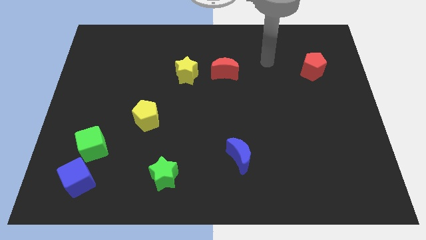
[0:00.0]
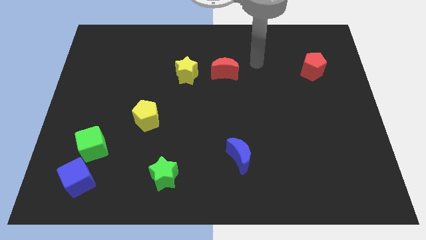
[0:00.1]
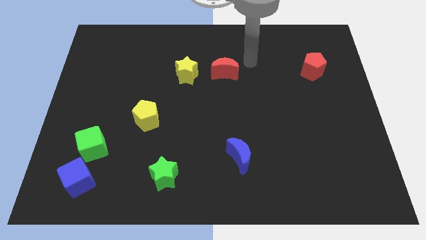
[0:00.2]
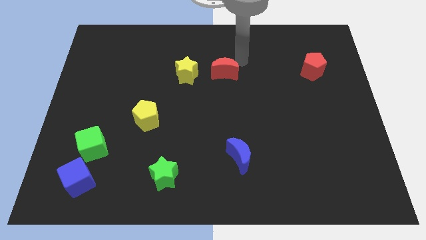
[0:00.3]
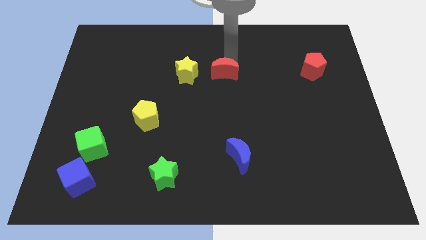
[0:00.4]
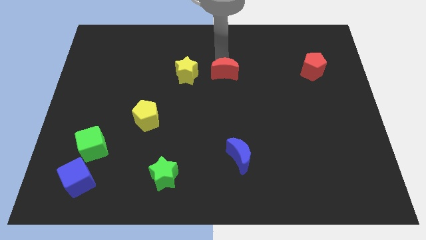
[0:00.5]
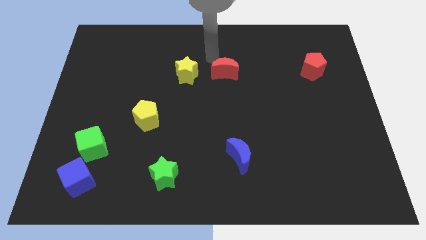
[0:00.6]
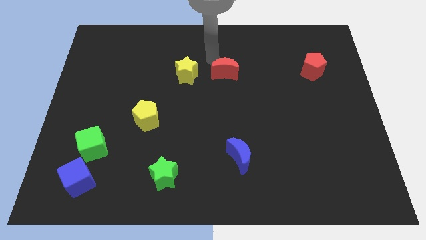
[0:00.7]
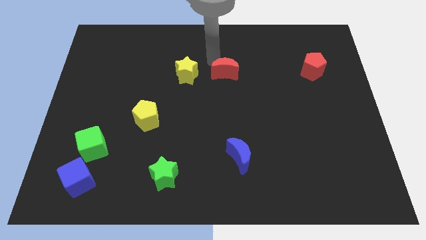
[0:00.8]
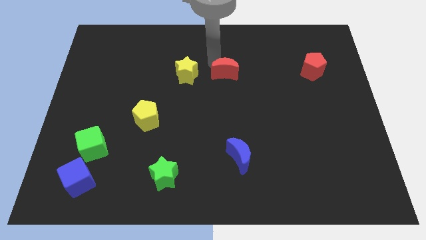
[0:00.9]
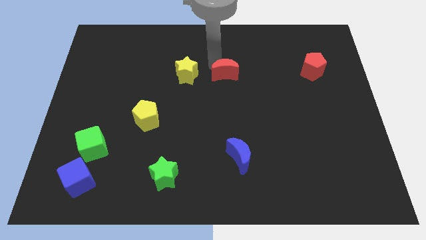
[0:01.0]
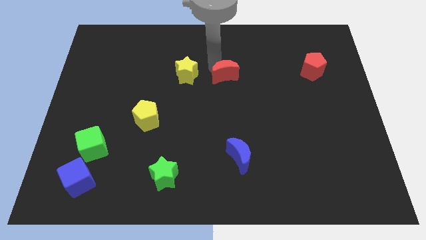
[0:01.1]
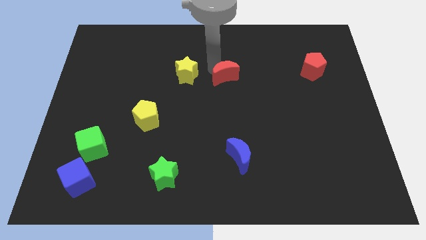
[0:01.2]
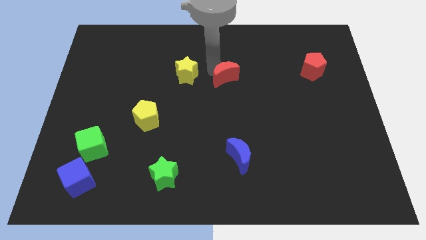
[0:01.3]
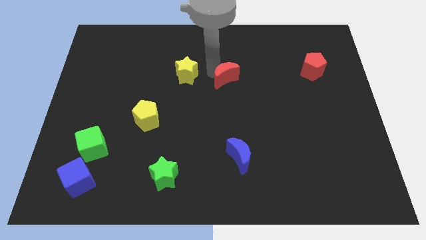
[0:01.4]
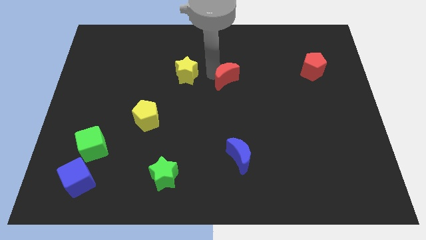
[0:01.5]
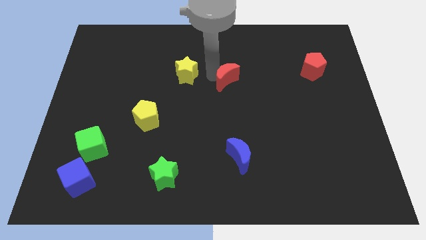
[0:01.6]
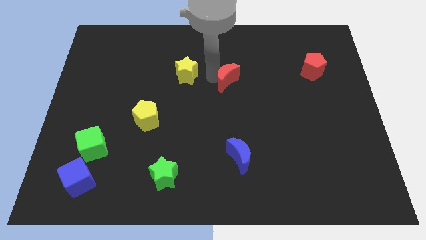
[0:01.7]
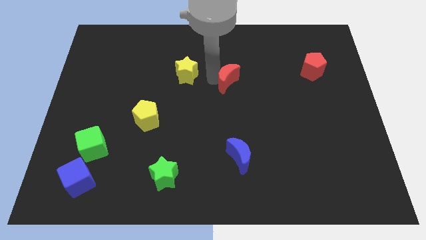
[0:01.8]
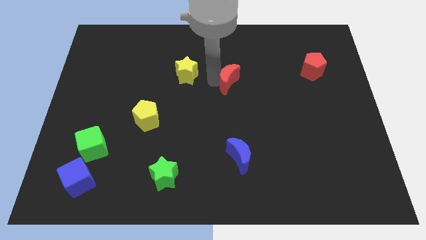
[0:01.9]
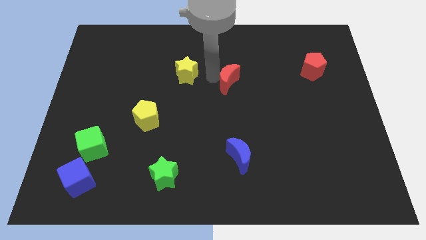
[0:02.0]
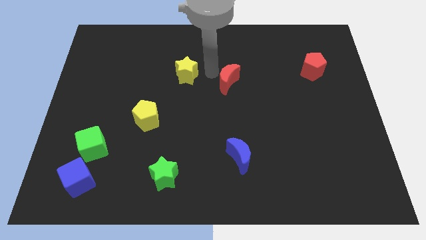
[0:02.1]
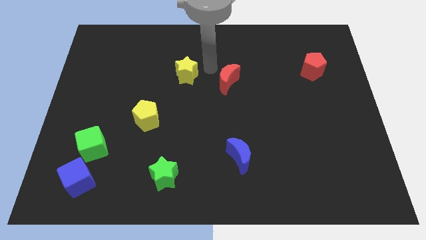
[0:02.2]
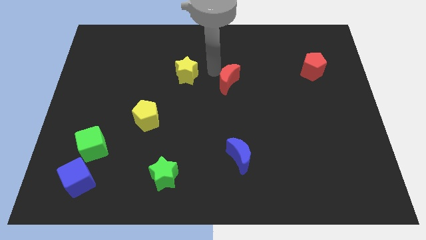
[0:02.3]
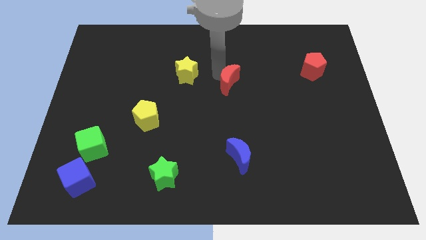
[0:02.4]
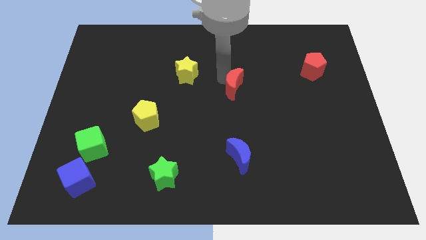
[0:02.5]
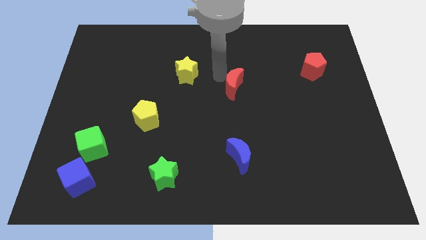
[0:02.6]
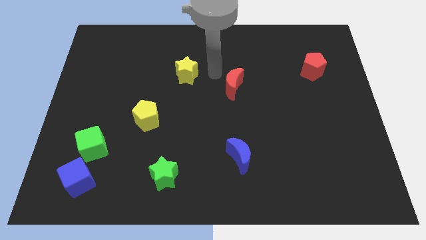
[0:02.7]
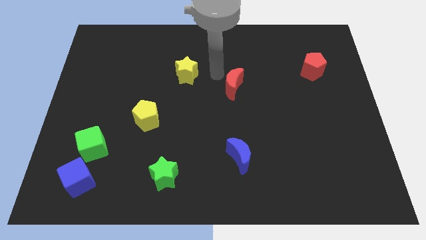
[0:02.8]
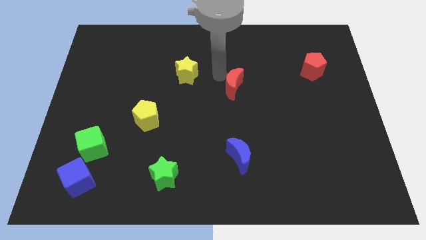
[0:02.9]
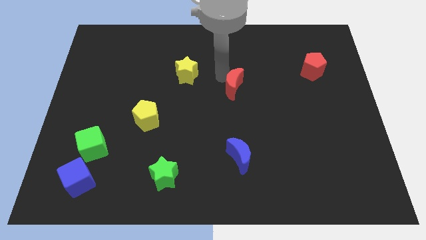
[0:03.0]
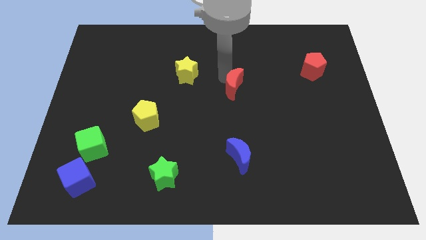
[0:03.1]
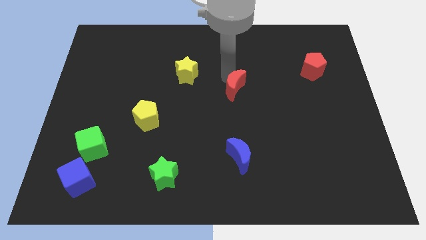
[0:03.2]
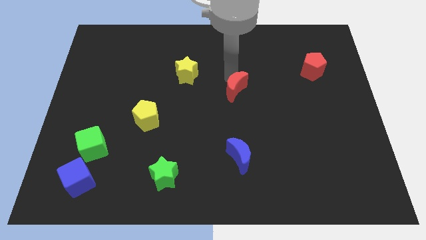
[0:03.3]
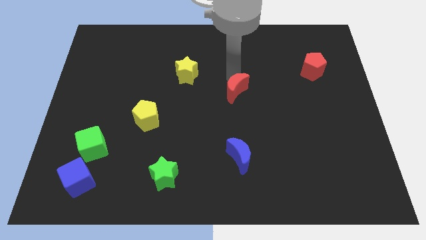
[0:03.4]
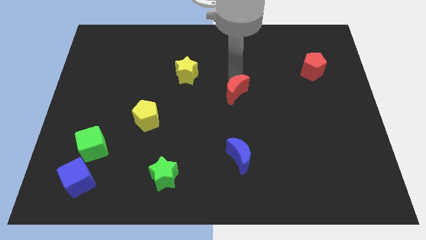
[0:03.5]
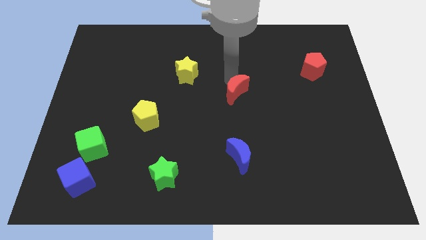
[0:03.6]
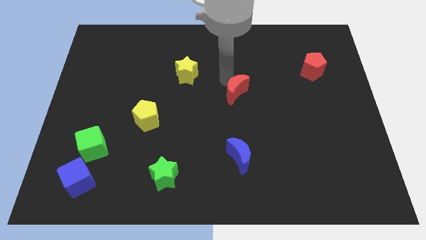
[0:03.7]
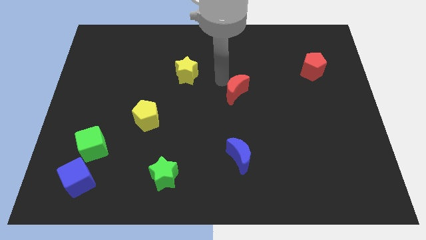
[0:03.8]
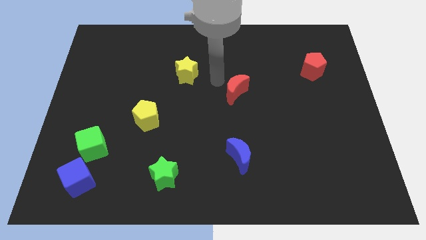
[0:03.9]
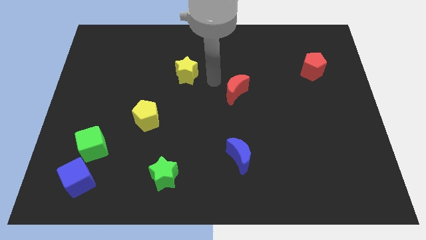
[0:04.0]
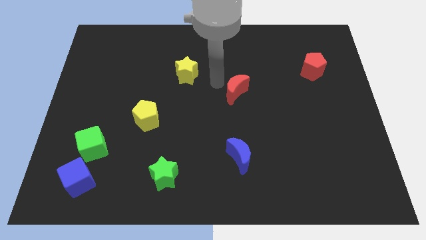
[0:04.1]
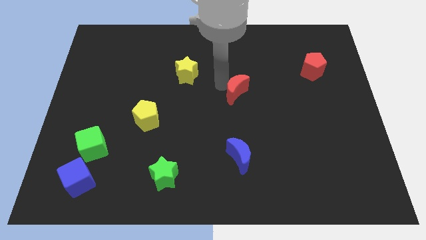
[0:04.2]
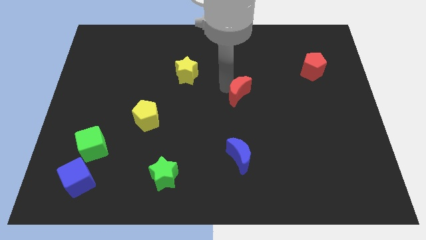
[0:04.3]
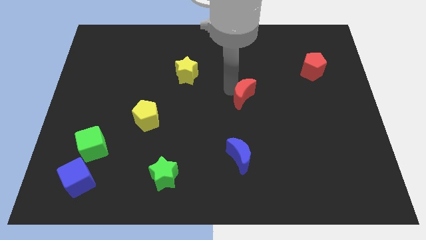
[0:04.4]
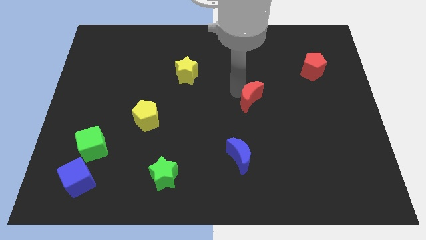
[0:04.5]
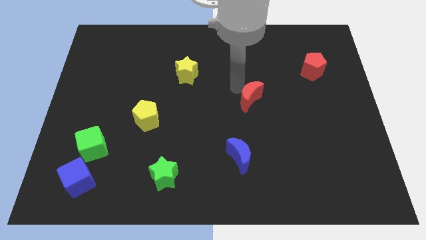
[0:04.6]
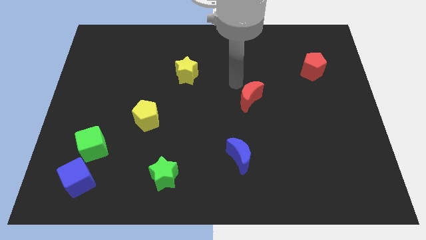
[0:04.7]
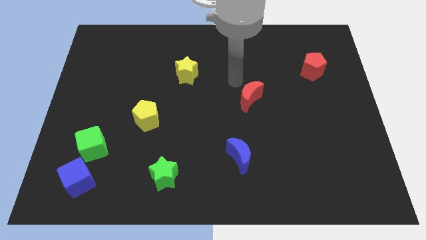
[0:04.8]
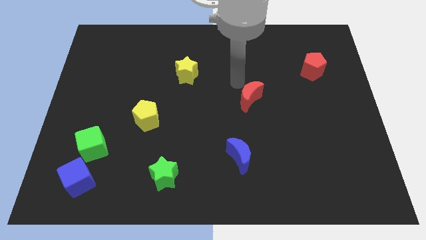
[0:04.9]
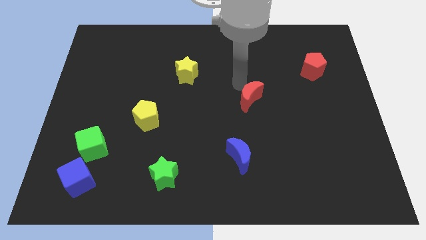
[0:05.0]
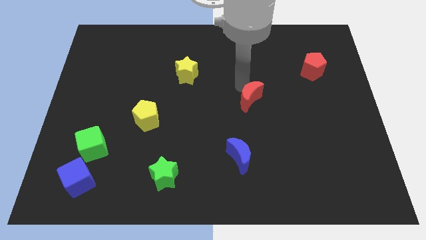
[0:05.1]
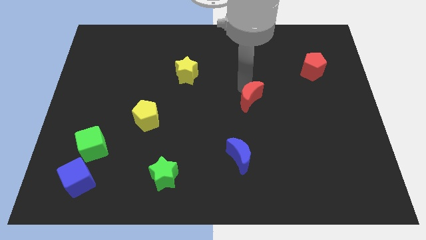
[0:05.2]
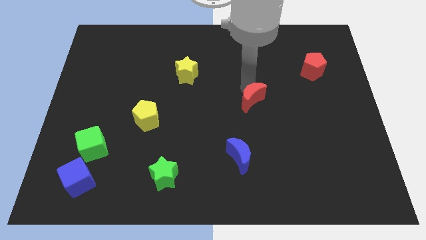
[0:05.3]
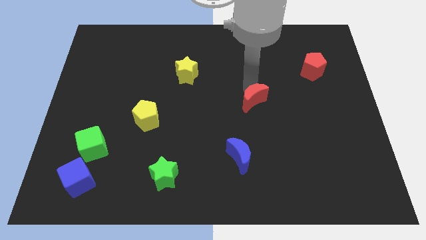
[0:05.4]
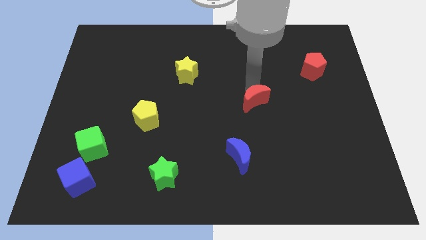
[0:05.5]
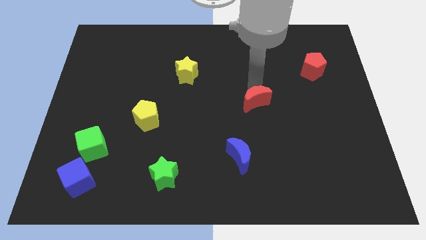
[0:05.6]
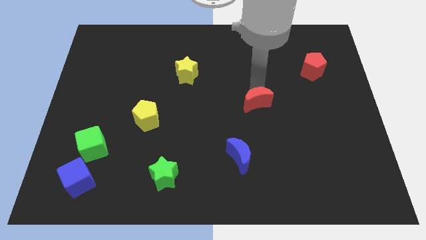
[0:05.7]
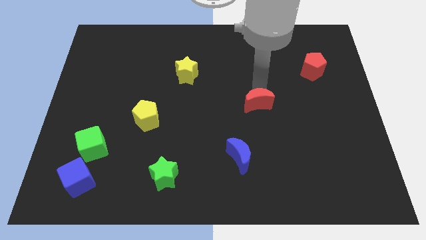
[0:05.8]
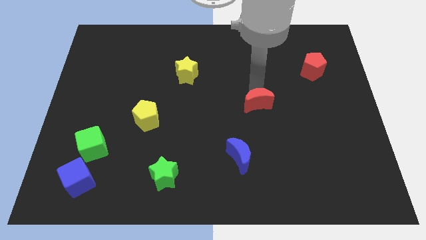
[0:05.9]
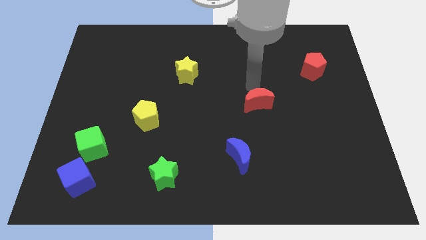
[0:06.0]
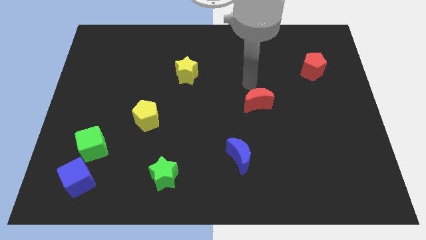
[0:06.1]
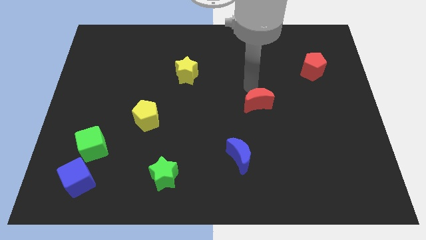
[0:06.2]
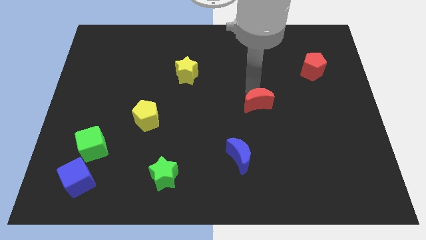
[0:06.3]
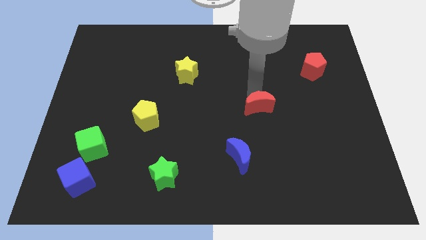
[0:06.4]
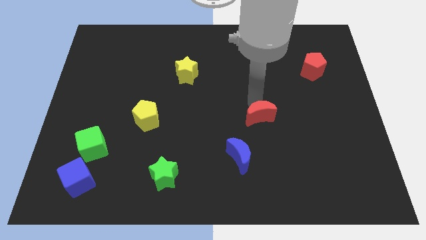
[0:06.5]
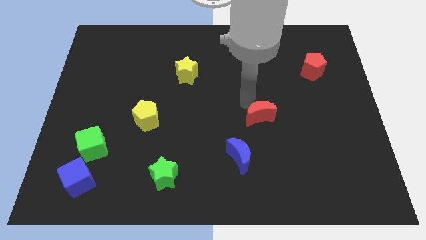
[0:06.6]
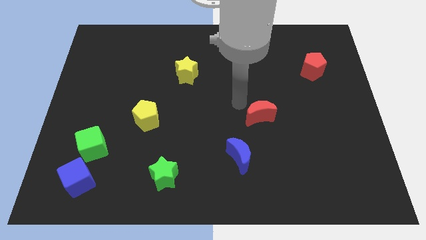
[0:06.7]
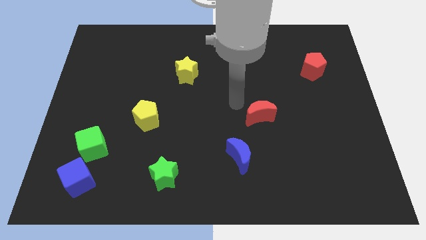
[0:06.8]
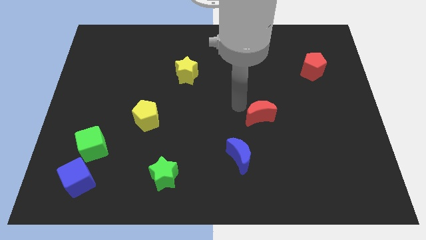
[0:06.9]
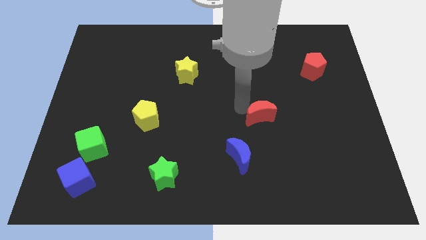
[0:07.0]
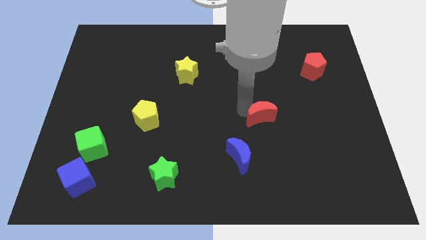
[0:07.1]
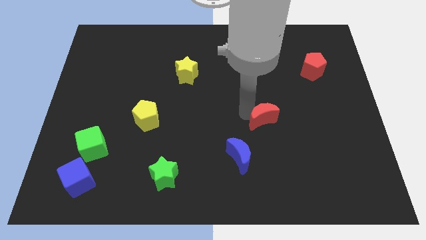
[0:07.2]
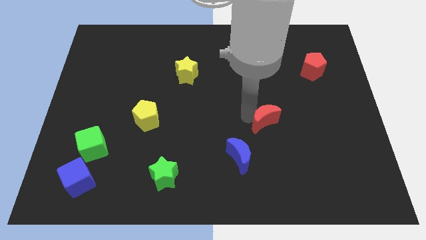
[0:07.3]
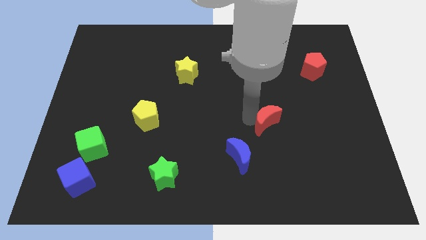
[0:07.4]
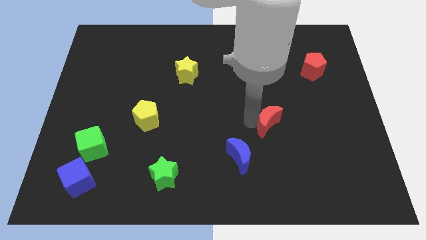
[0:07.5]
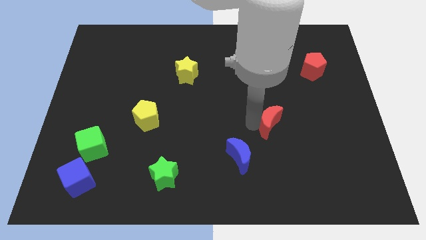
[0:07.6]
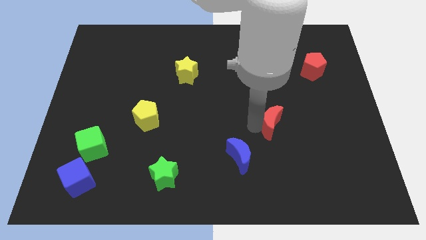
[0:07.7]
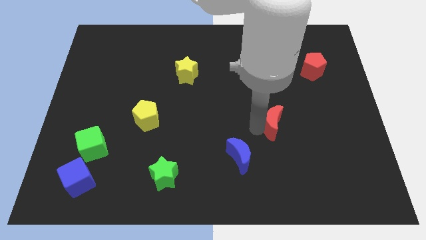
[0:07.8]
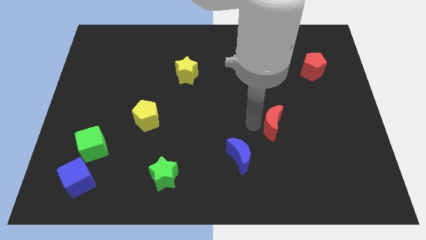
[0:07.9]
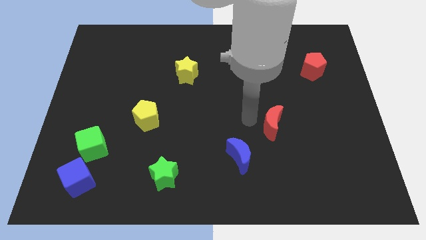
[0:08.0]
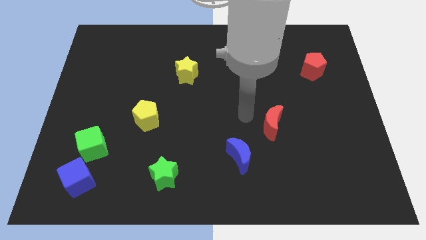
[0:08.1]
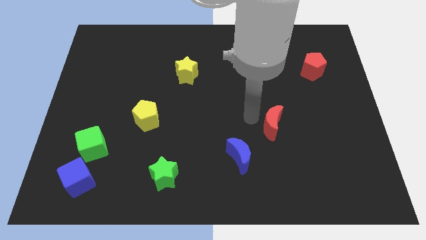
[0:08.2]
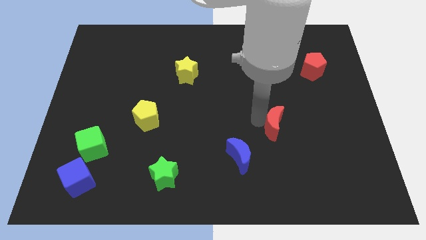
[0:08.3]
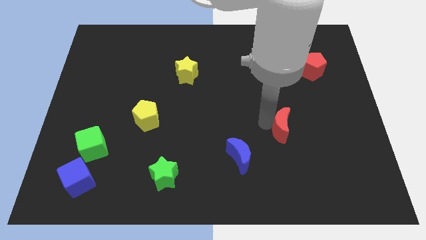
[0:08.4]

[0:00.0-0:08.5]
move the red moon downwards and then right
